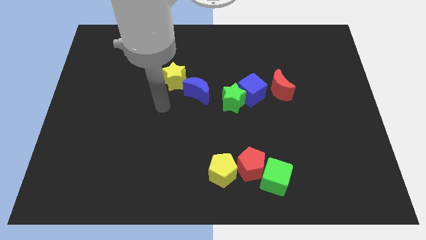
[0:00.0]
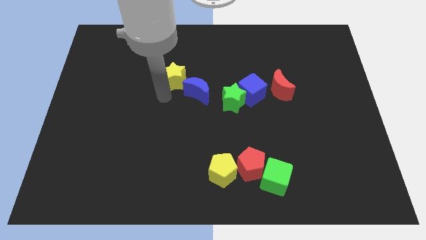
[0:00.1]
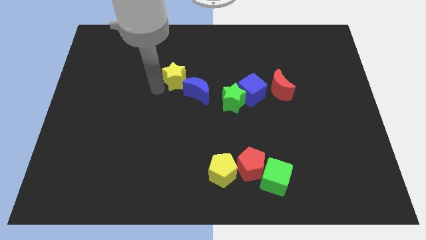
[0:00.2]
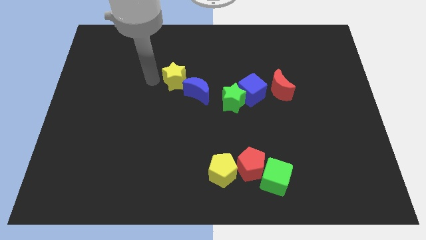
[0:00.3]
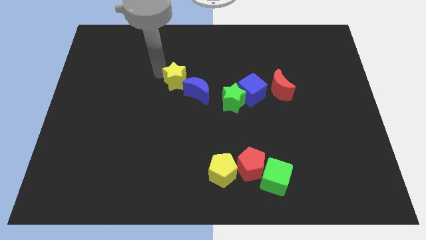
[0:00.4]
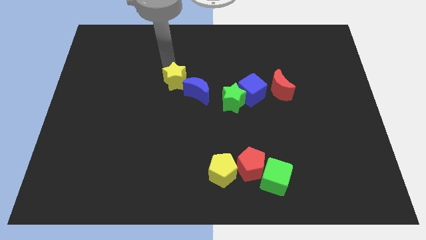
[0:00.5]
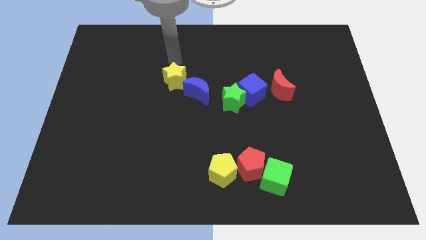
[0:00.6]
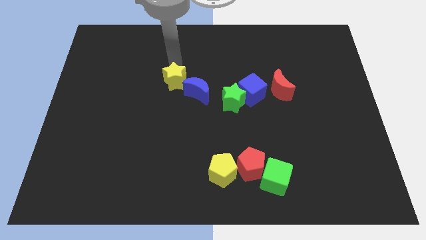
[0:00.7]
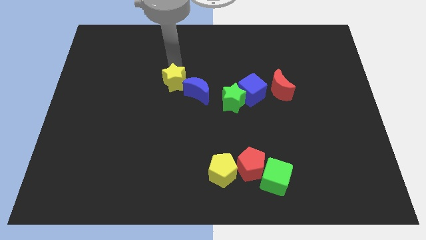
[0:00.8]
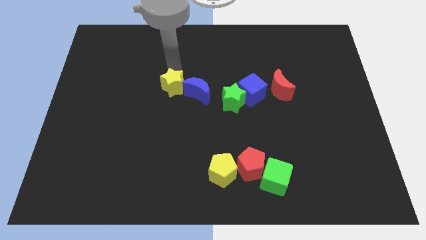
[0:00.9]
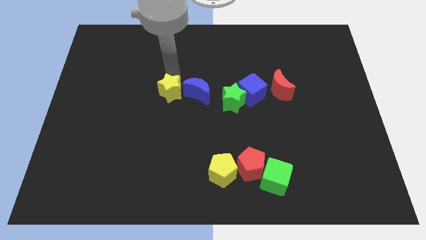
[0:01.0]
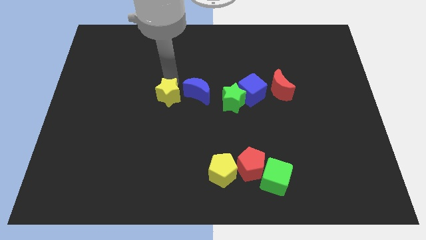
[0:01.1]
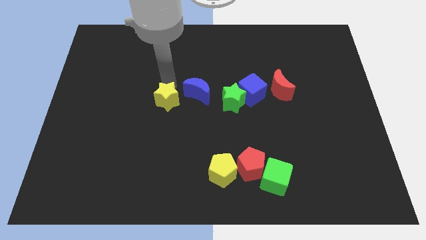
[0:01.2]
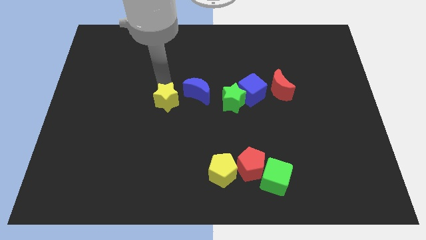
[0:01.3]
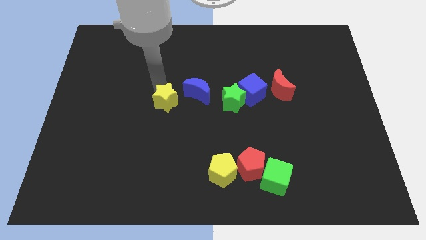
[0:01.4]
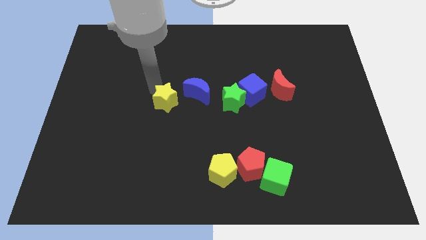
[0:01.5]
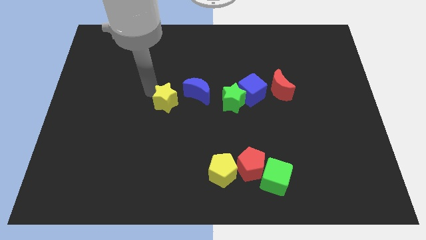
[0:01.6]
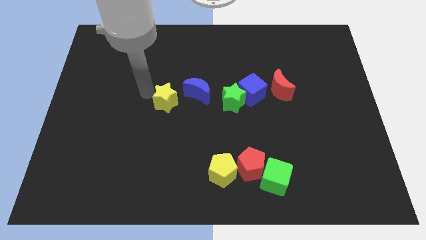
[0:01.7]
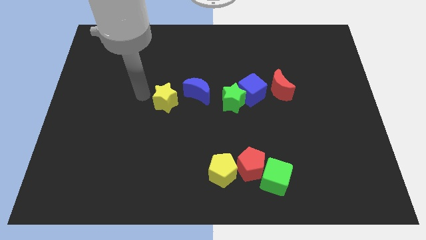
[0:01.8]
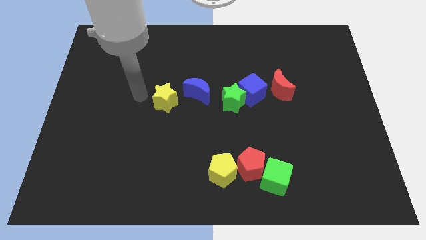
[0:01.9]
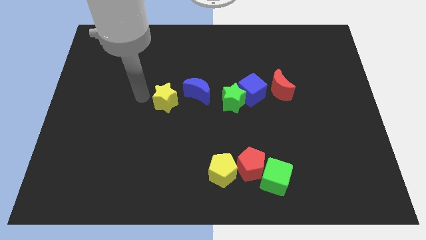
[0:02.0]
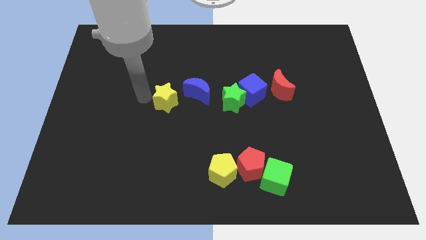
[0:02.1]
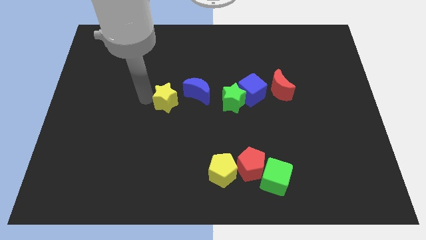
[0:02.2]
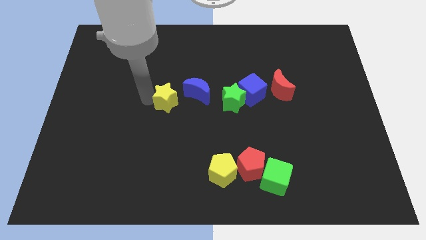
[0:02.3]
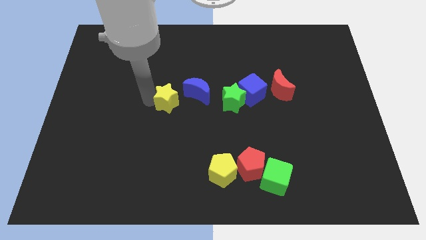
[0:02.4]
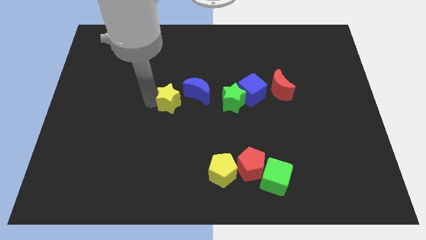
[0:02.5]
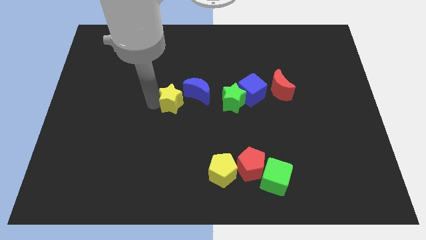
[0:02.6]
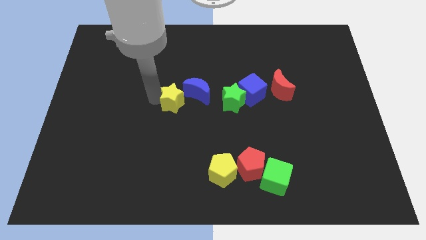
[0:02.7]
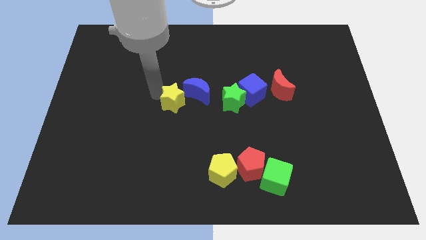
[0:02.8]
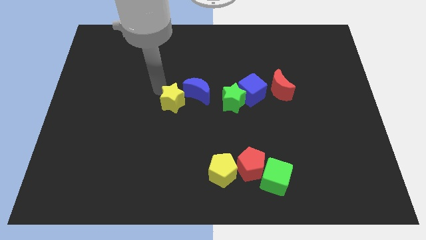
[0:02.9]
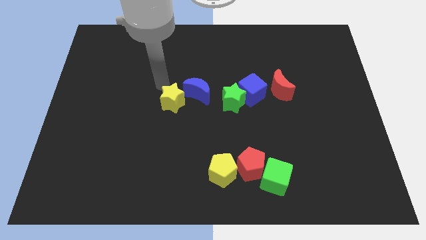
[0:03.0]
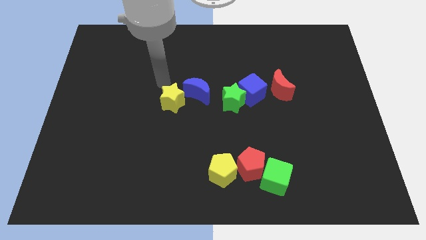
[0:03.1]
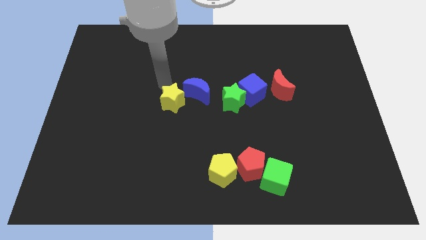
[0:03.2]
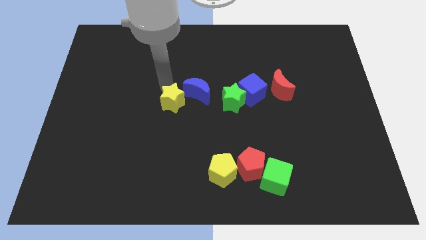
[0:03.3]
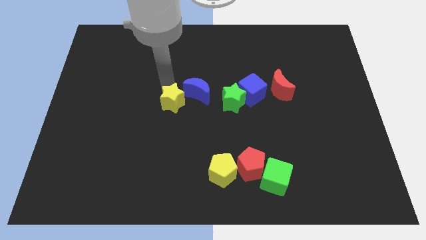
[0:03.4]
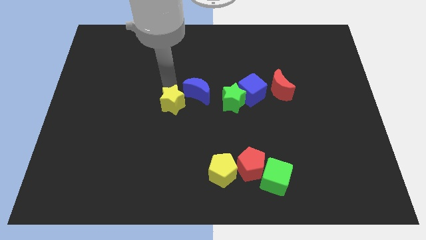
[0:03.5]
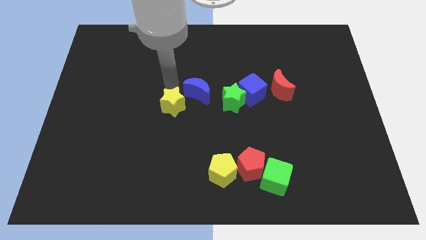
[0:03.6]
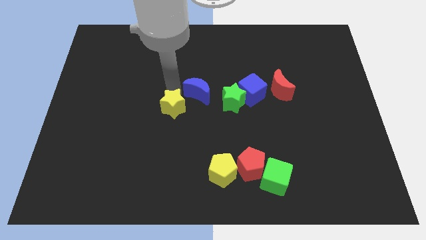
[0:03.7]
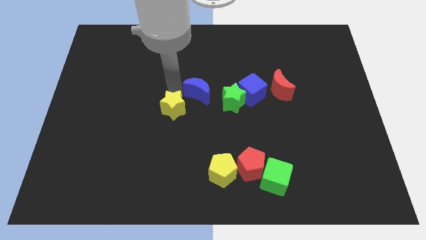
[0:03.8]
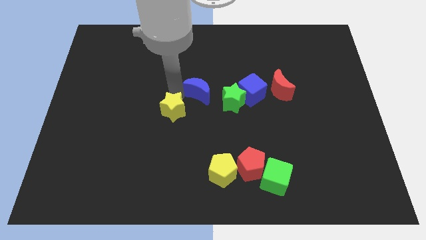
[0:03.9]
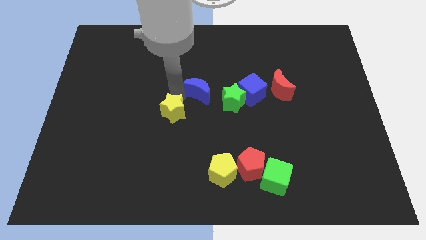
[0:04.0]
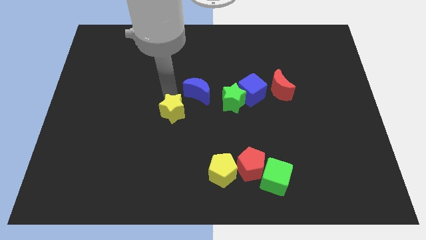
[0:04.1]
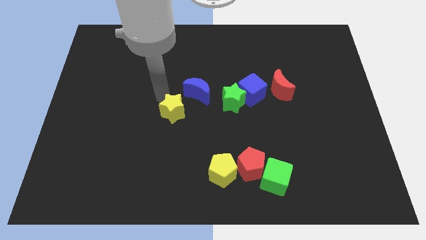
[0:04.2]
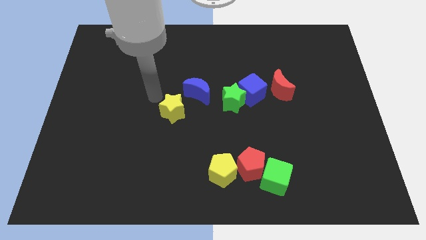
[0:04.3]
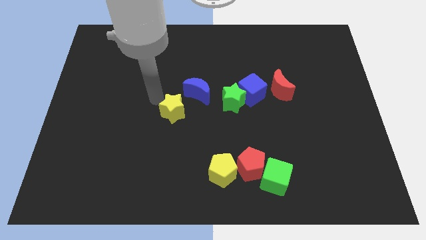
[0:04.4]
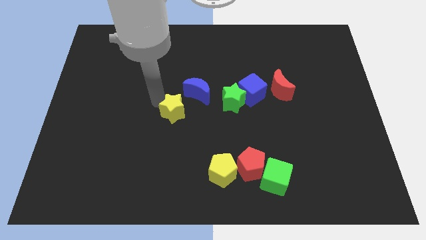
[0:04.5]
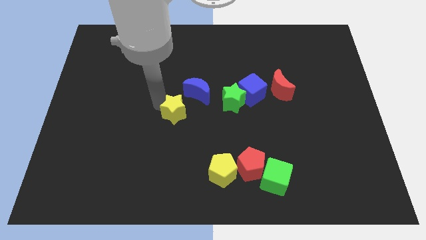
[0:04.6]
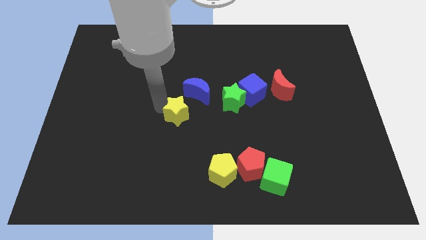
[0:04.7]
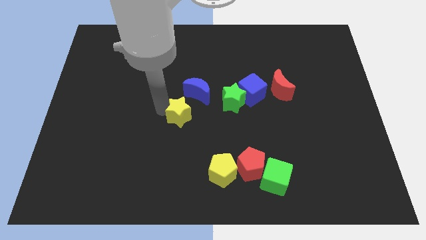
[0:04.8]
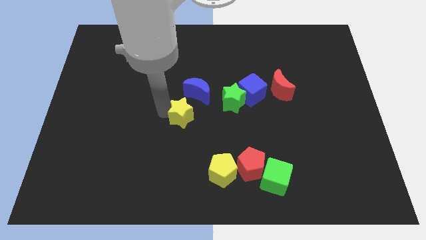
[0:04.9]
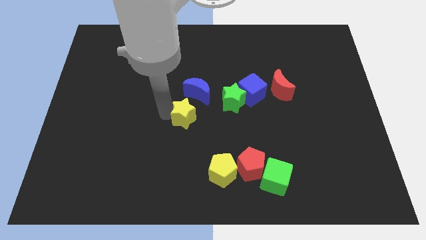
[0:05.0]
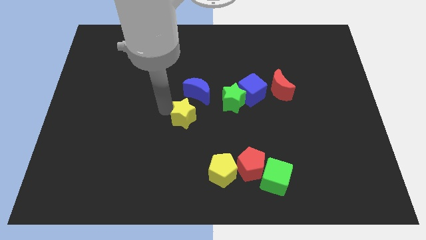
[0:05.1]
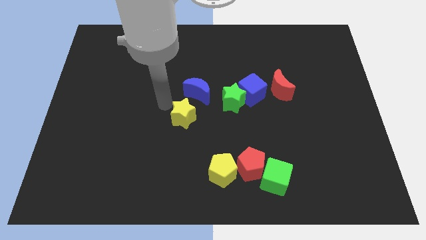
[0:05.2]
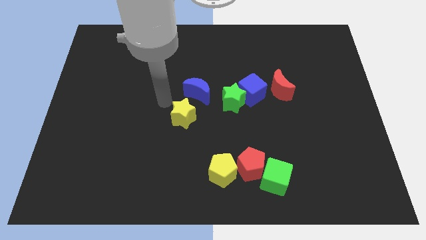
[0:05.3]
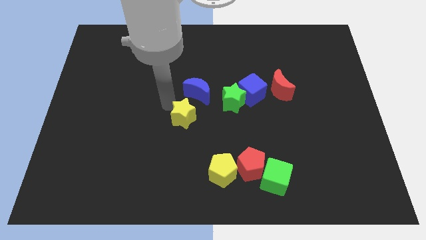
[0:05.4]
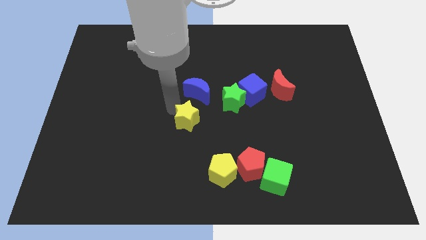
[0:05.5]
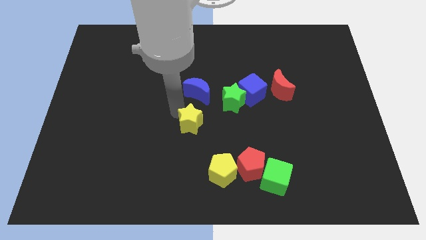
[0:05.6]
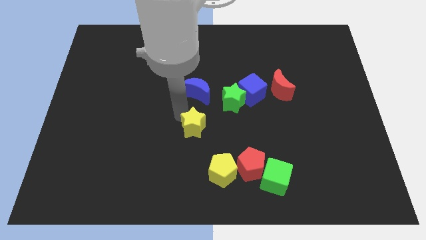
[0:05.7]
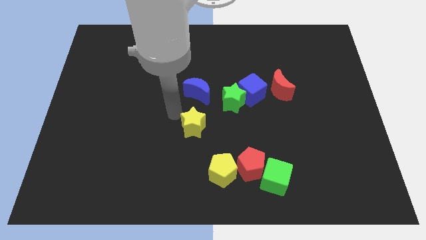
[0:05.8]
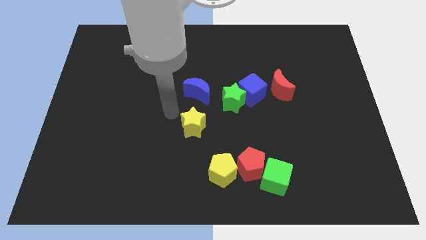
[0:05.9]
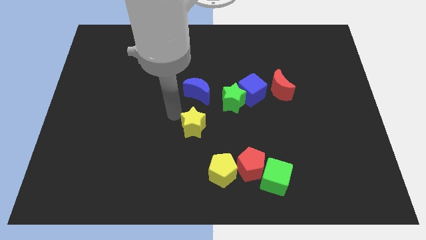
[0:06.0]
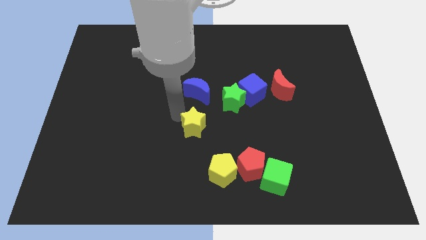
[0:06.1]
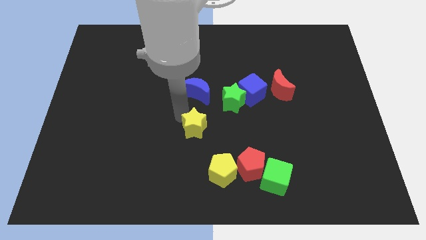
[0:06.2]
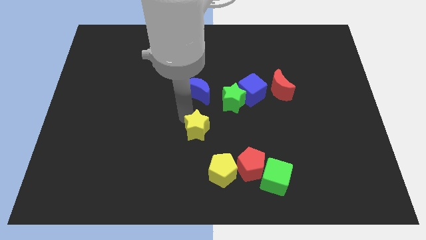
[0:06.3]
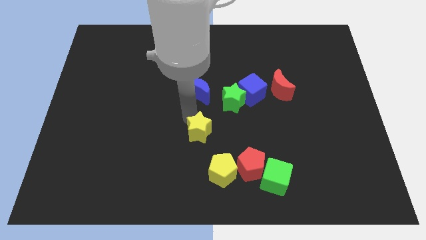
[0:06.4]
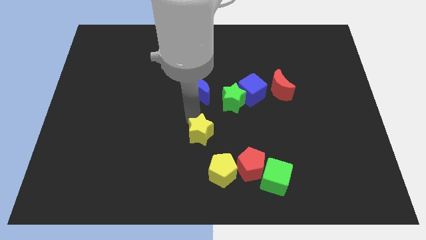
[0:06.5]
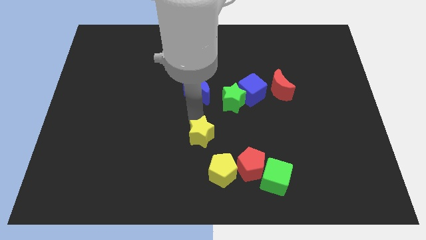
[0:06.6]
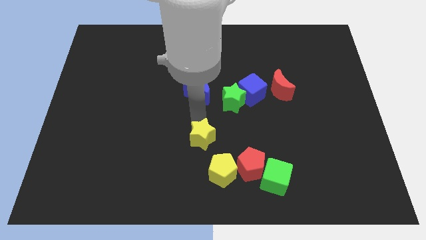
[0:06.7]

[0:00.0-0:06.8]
move the yellow star to the top left side of the red pentagon
